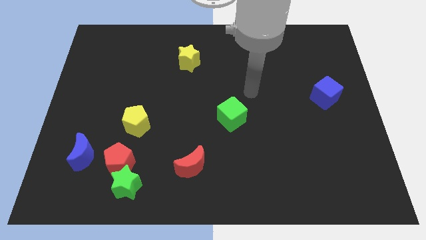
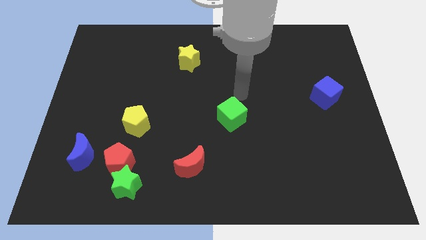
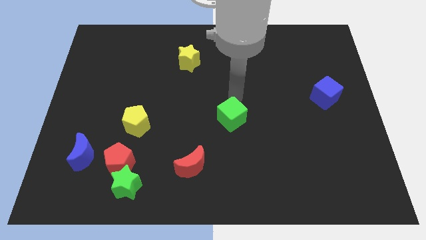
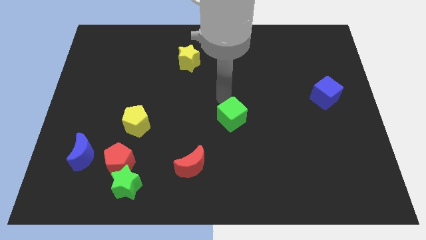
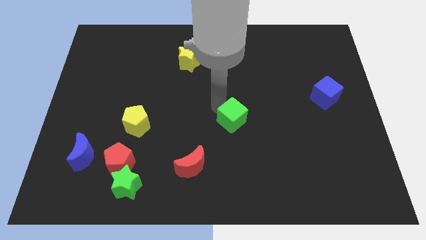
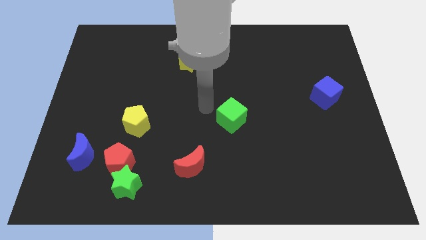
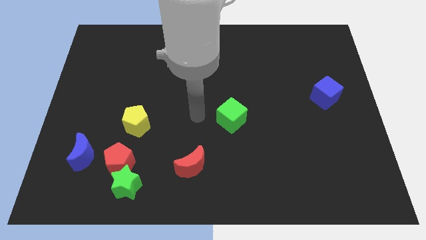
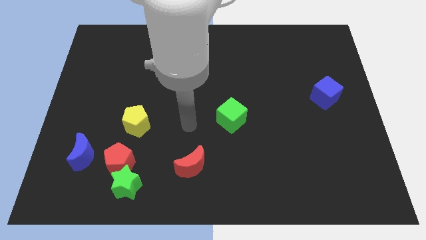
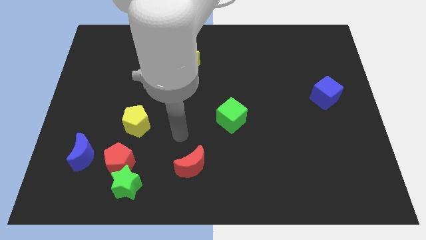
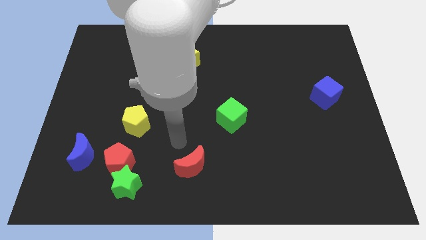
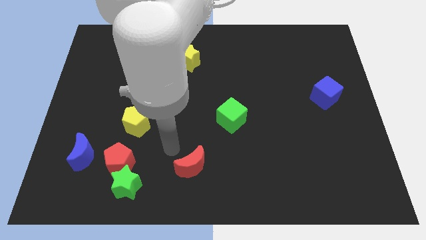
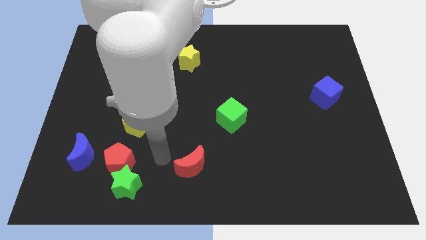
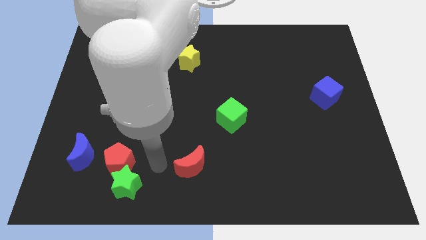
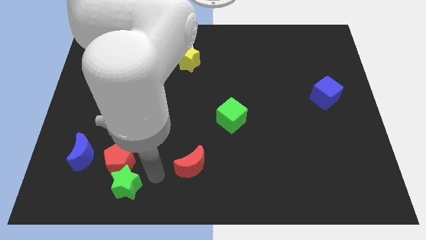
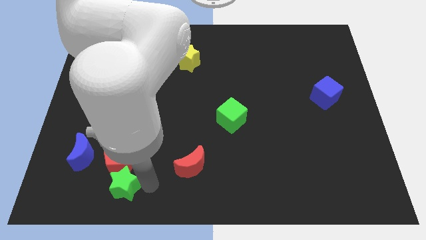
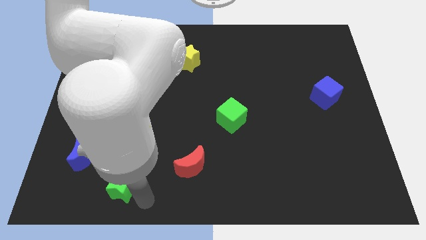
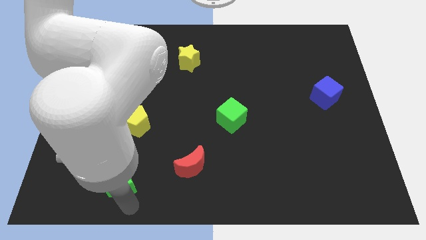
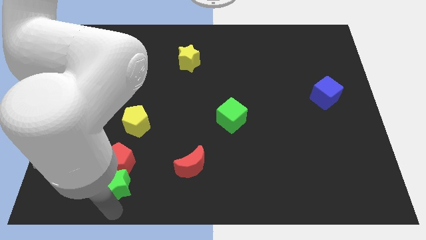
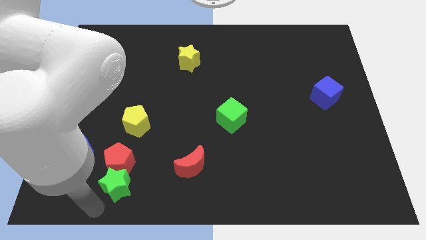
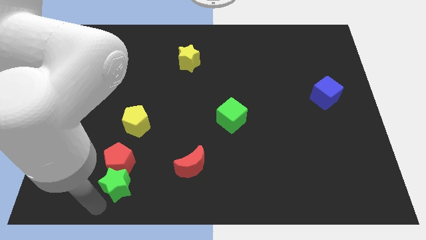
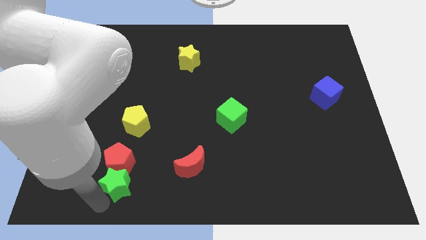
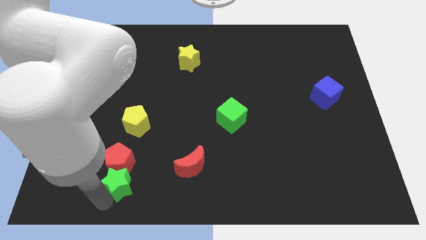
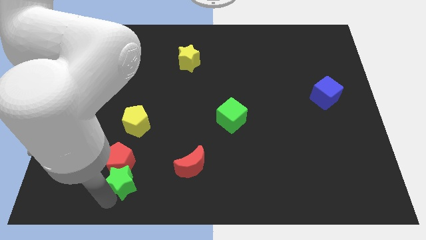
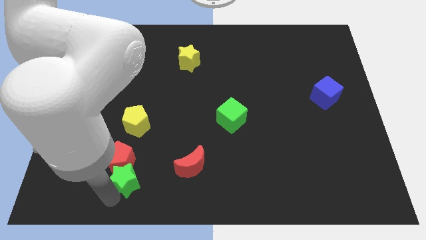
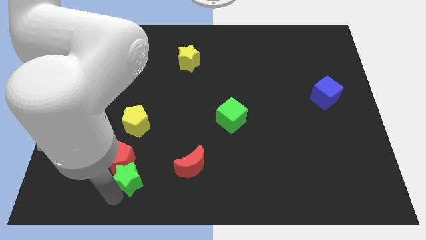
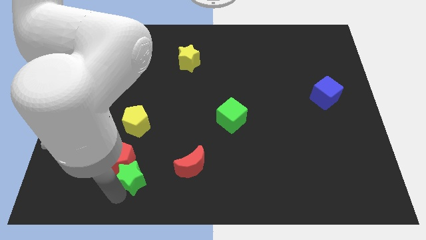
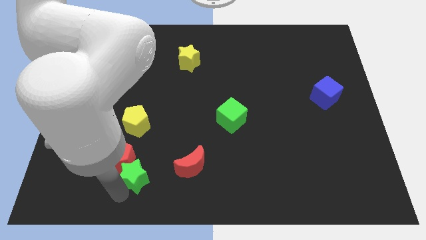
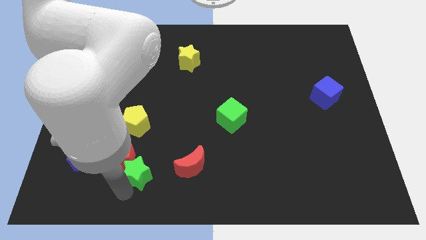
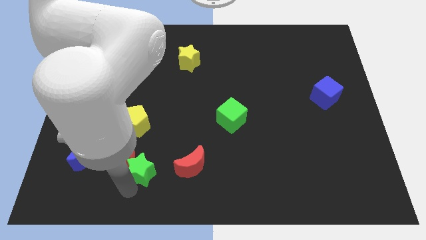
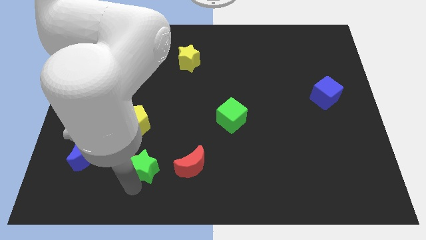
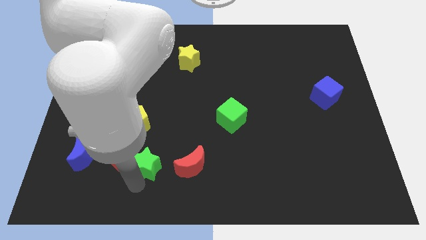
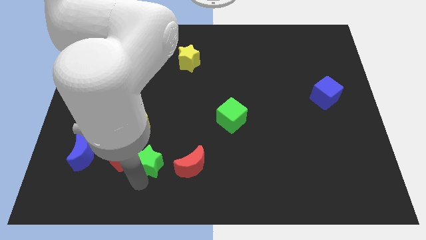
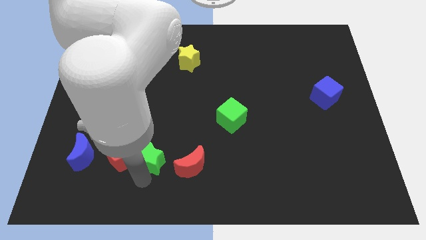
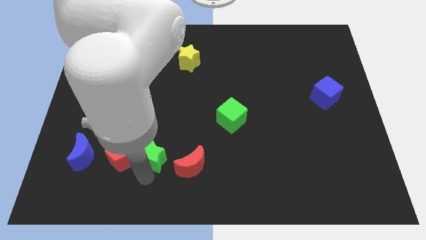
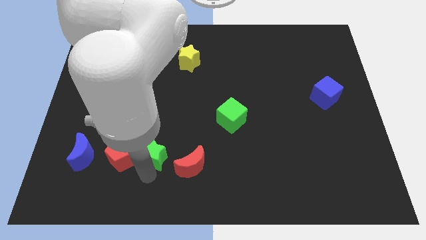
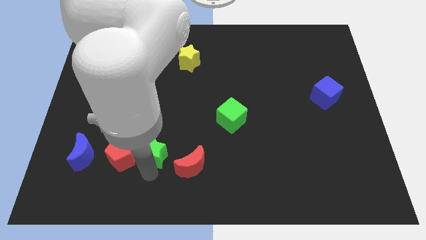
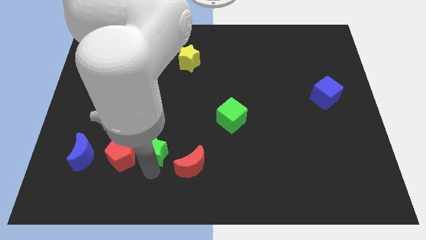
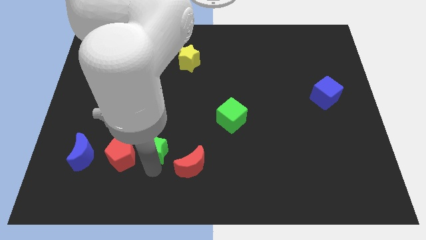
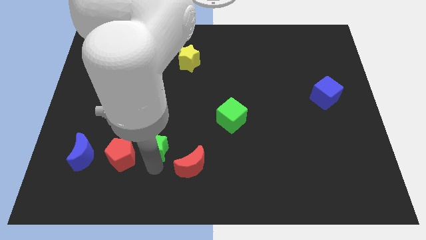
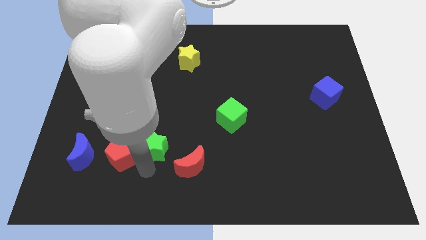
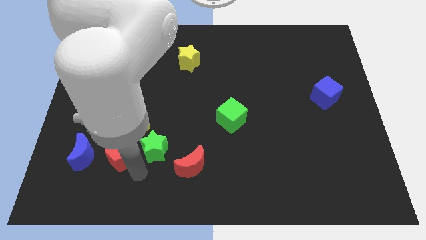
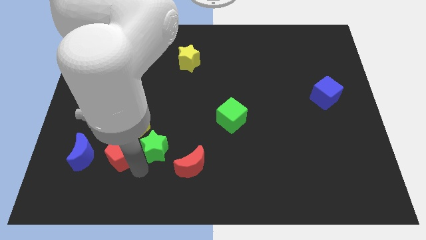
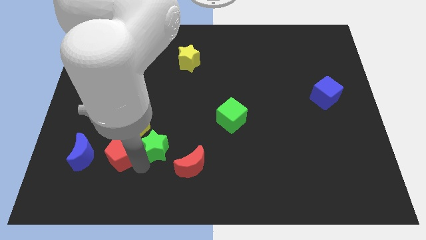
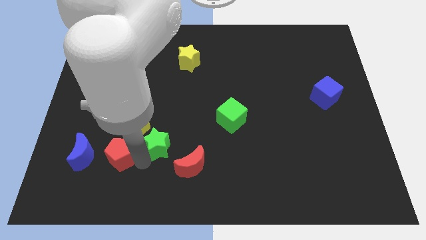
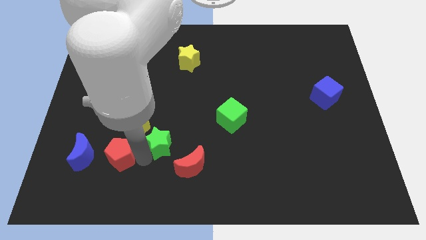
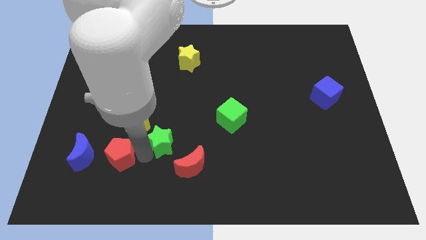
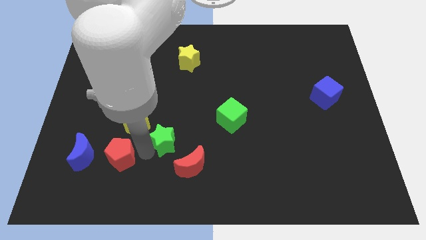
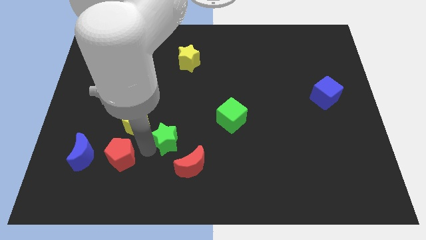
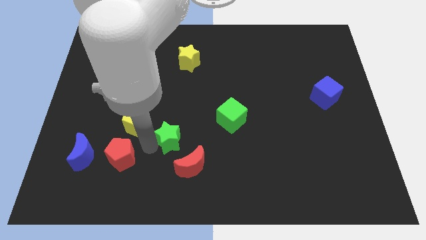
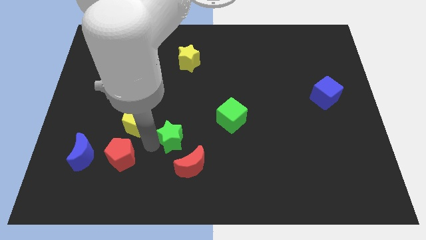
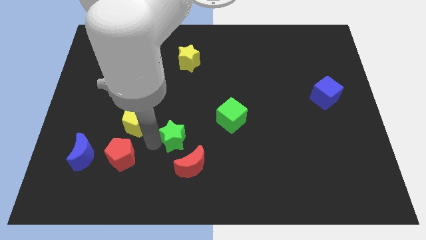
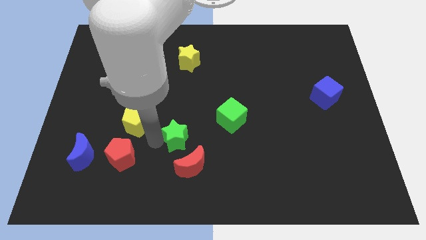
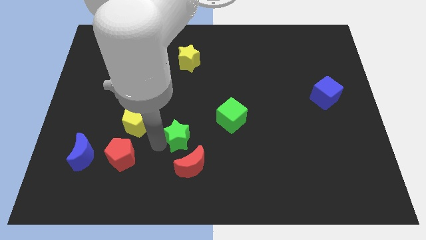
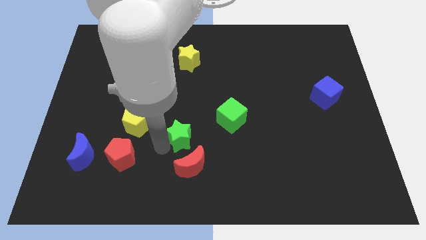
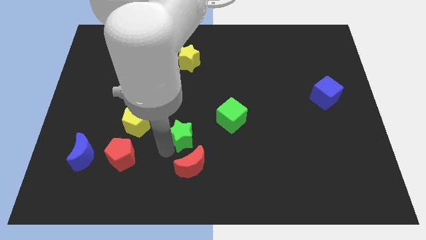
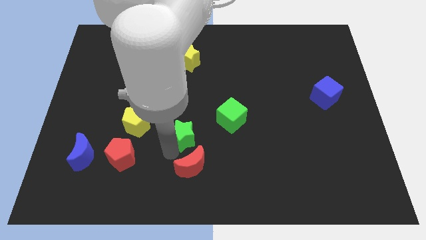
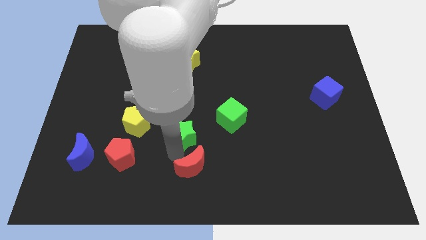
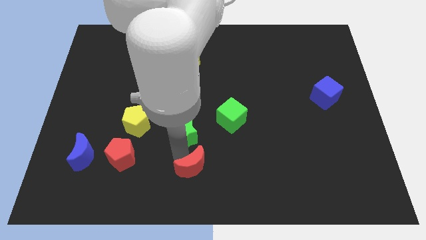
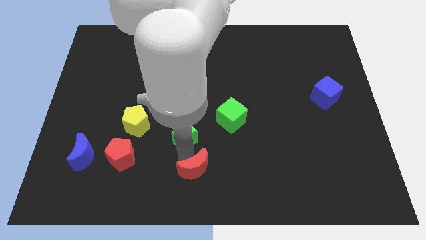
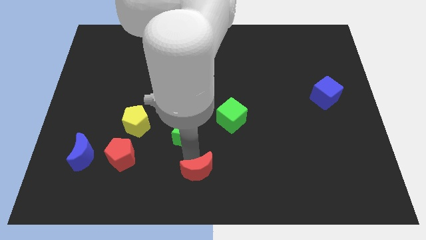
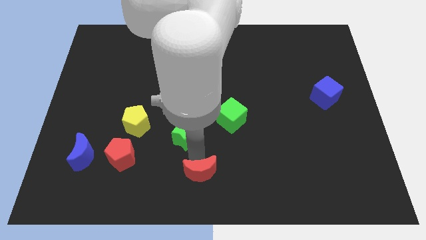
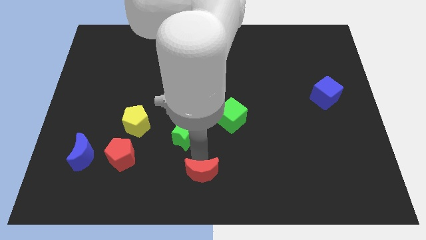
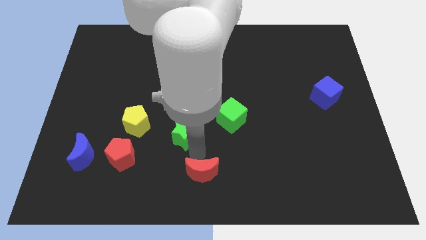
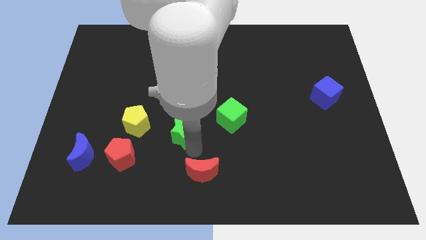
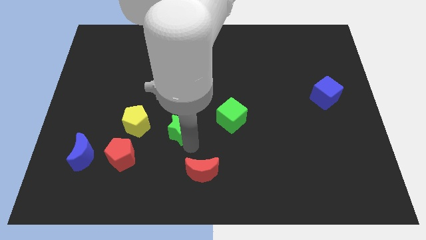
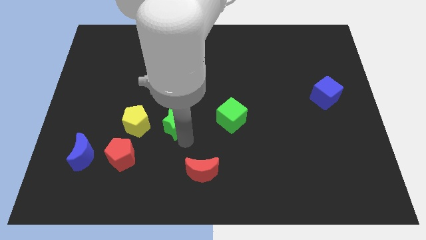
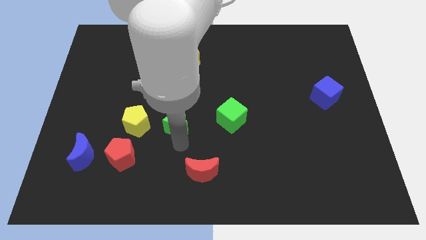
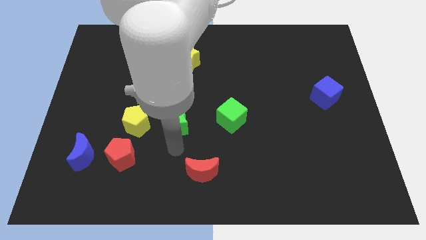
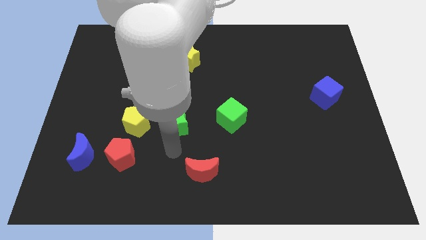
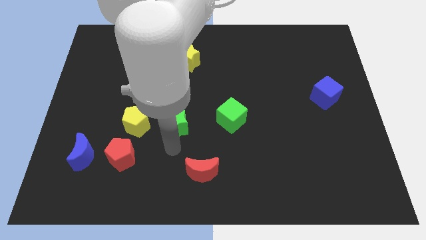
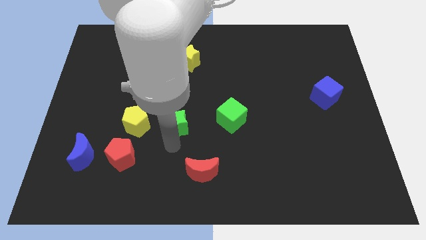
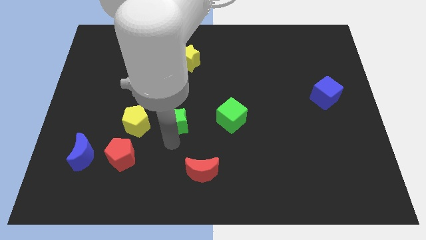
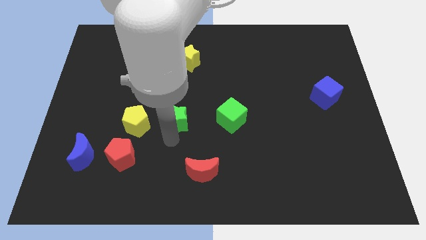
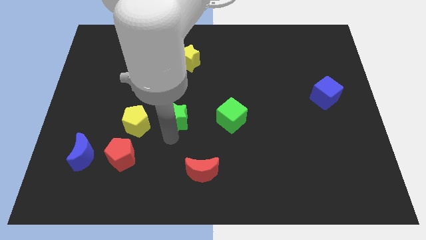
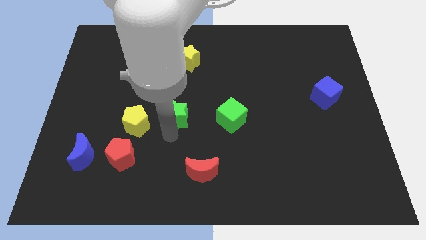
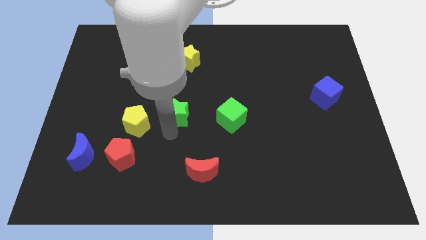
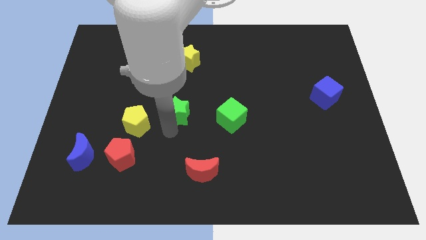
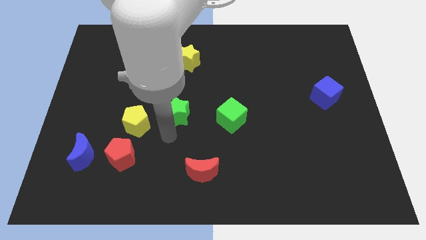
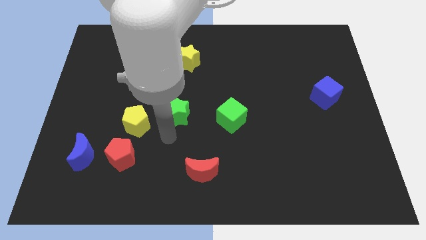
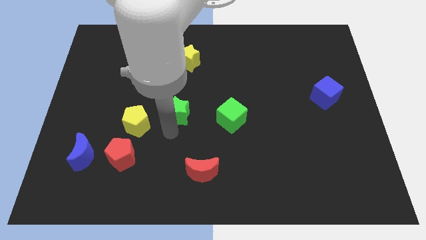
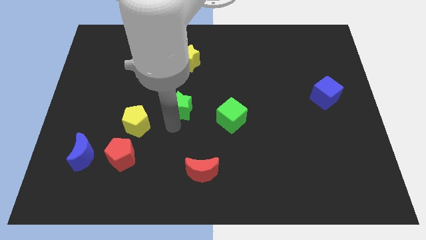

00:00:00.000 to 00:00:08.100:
slide the green star to the bottom of the yellow star
